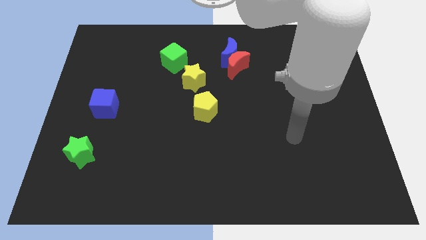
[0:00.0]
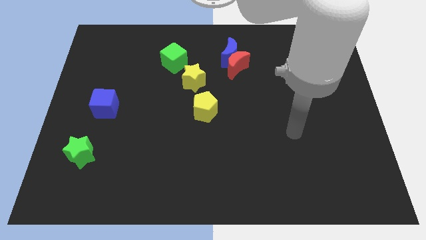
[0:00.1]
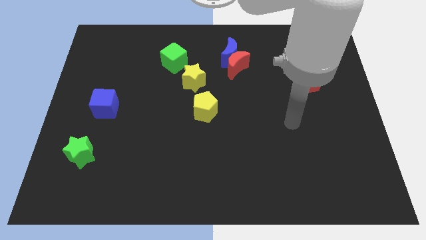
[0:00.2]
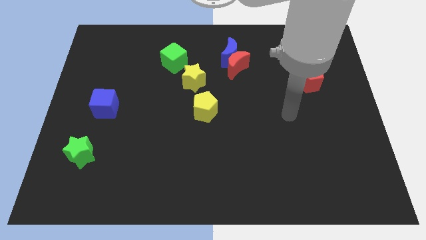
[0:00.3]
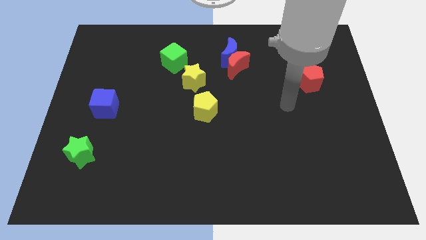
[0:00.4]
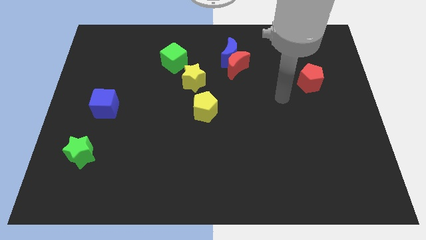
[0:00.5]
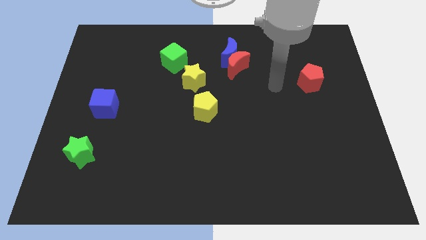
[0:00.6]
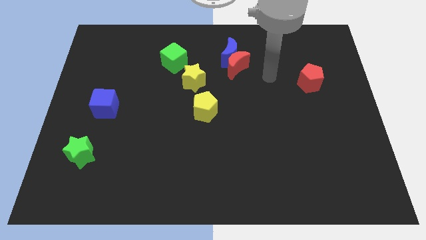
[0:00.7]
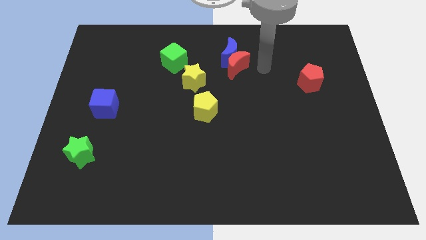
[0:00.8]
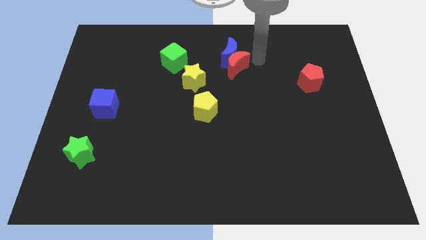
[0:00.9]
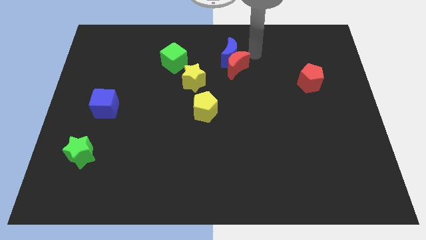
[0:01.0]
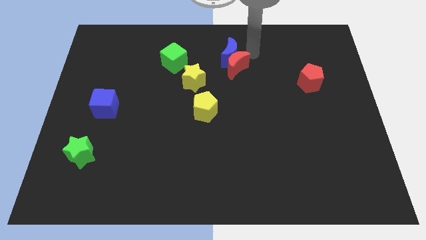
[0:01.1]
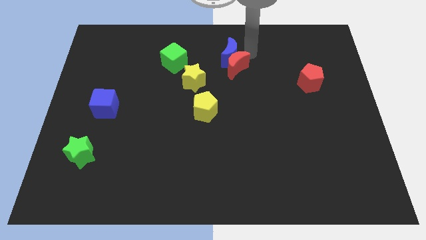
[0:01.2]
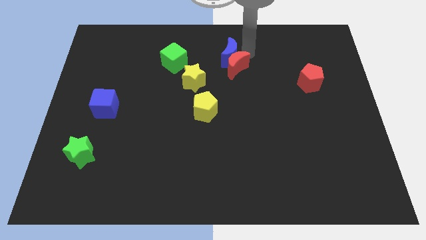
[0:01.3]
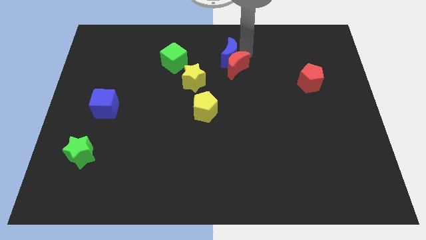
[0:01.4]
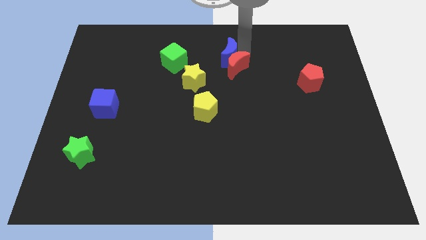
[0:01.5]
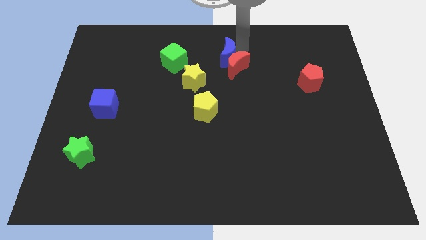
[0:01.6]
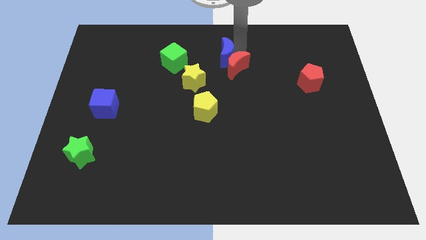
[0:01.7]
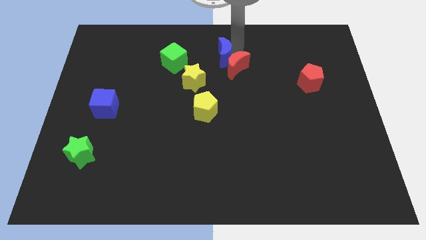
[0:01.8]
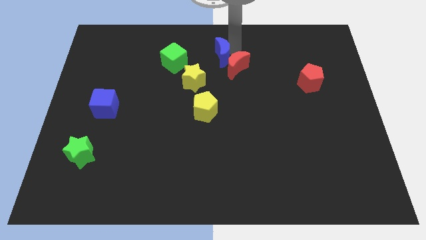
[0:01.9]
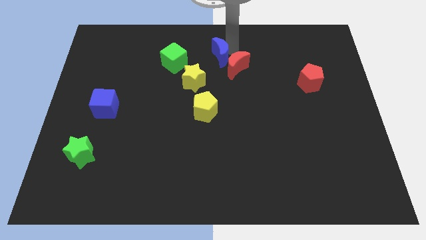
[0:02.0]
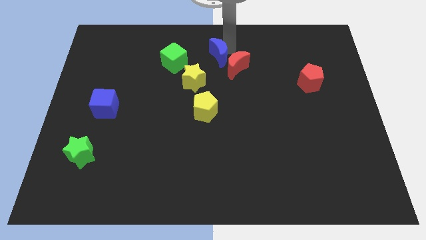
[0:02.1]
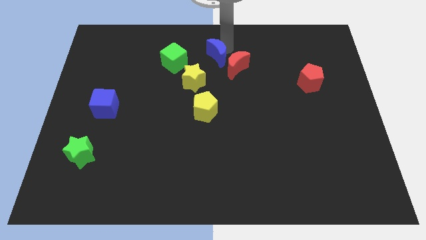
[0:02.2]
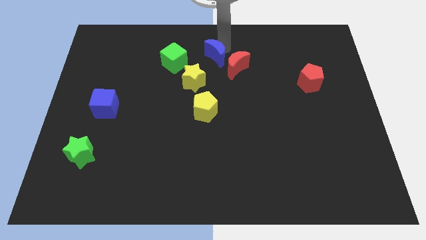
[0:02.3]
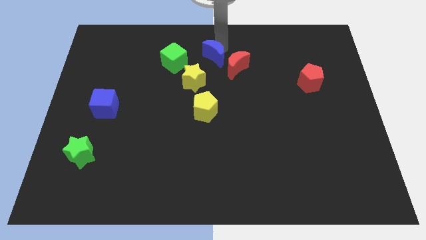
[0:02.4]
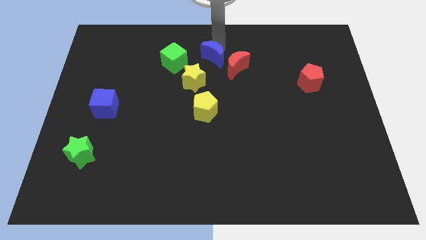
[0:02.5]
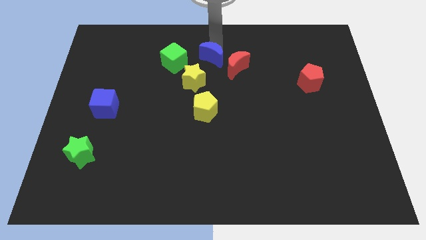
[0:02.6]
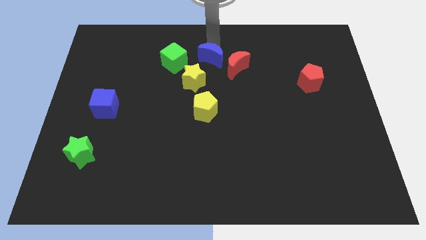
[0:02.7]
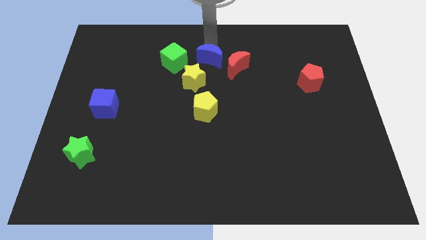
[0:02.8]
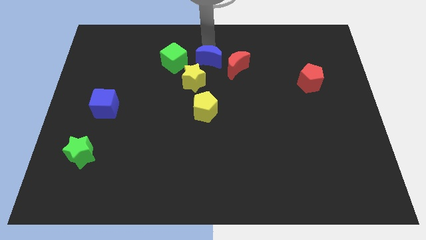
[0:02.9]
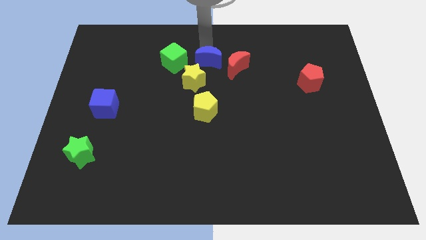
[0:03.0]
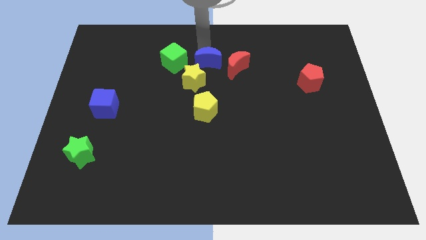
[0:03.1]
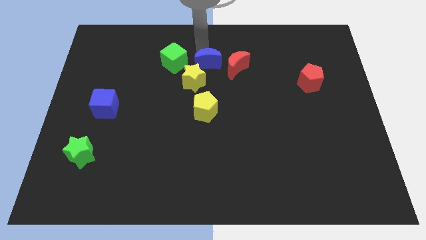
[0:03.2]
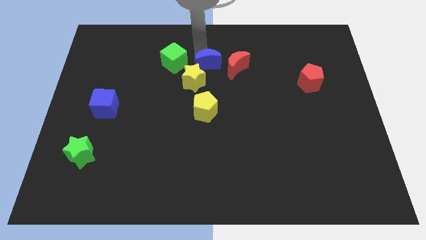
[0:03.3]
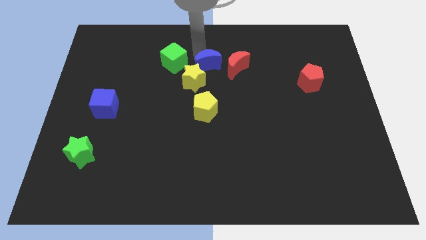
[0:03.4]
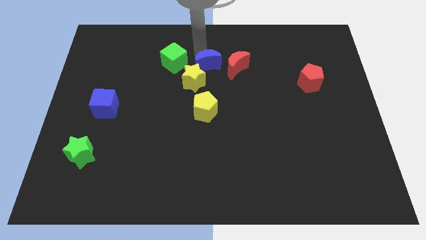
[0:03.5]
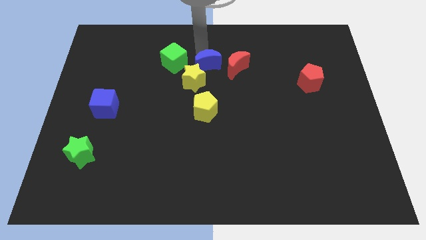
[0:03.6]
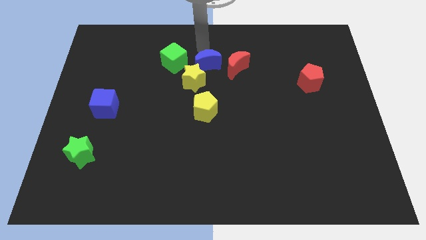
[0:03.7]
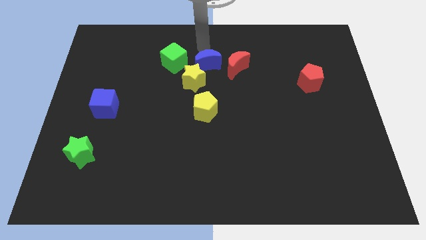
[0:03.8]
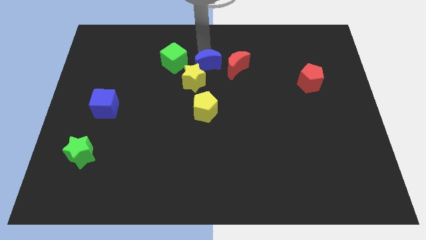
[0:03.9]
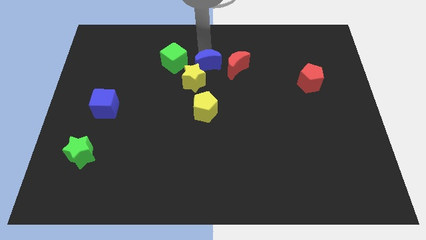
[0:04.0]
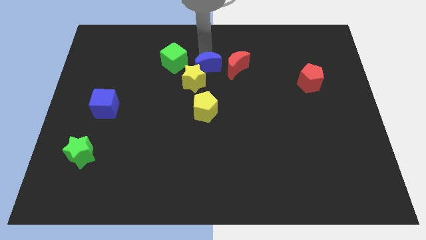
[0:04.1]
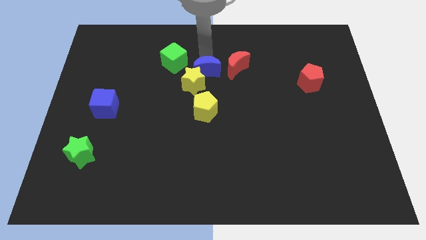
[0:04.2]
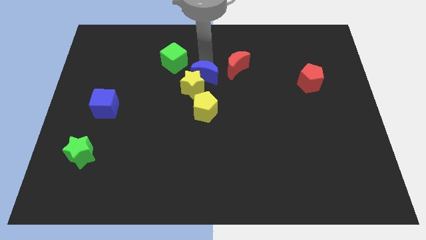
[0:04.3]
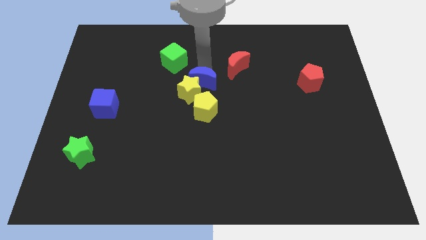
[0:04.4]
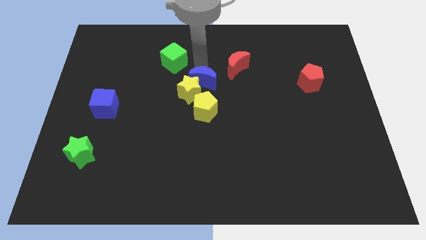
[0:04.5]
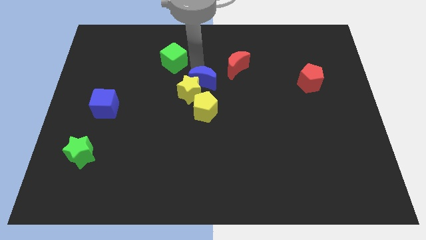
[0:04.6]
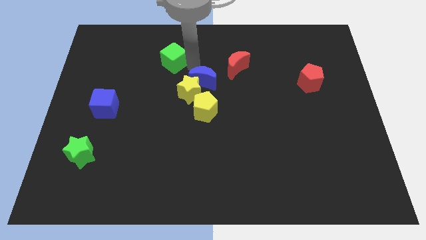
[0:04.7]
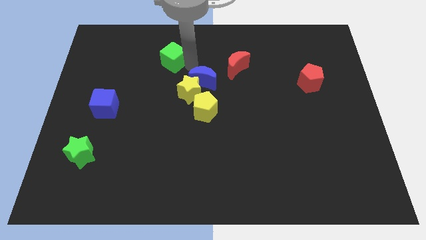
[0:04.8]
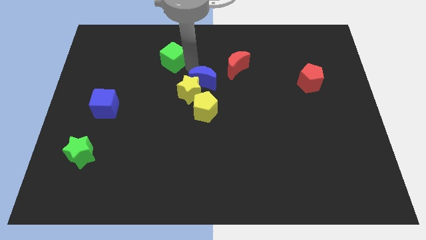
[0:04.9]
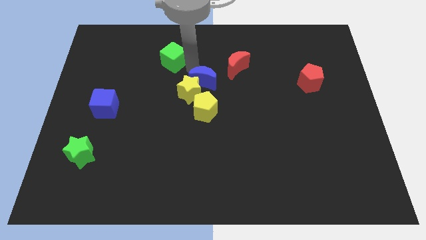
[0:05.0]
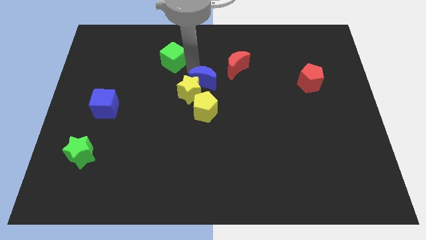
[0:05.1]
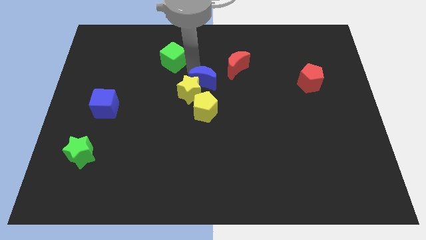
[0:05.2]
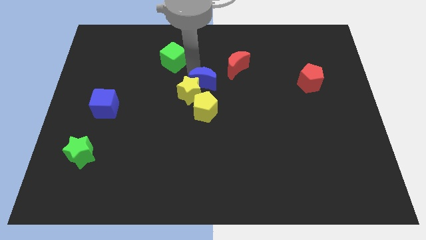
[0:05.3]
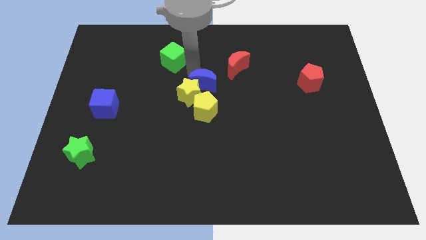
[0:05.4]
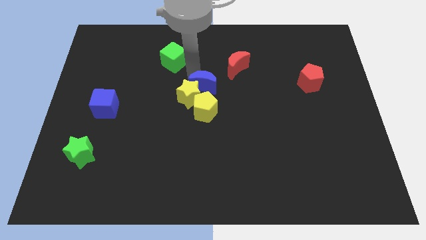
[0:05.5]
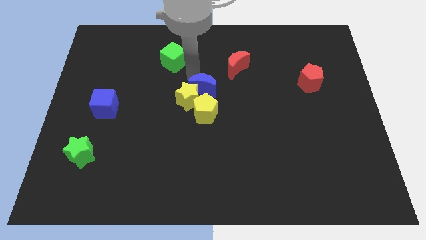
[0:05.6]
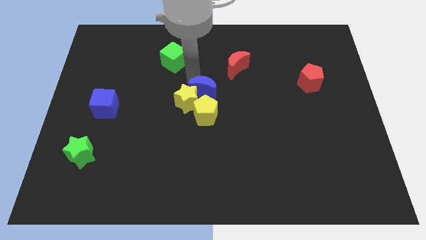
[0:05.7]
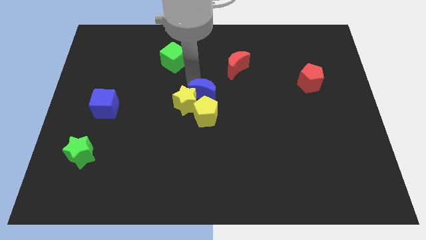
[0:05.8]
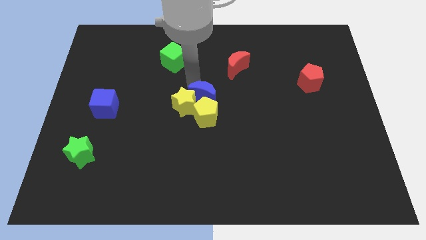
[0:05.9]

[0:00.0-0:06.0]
move the blue moon close to the yellow pentagon
